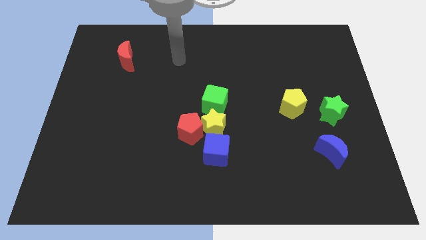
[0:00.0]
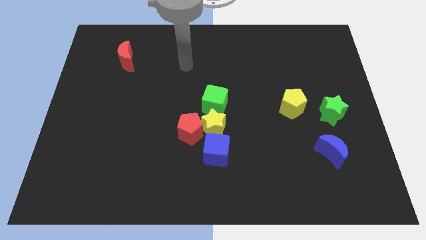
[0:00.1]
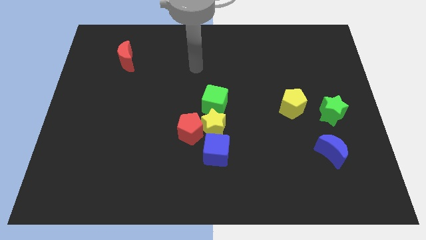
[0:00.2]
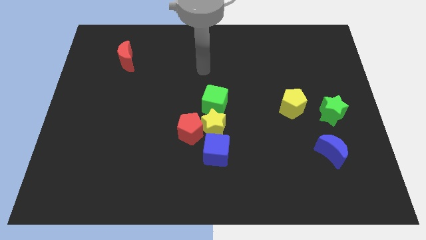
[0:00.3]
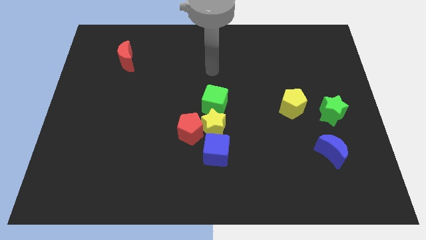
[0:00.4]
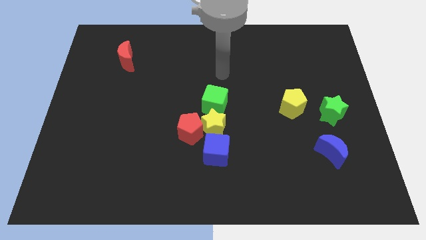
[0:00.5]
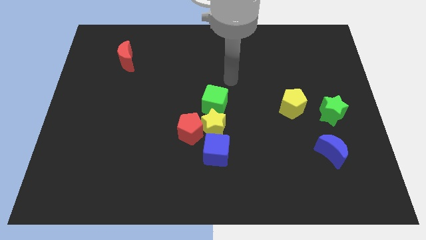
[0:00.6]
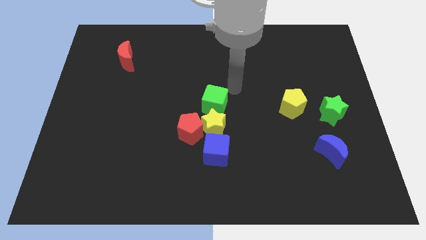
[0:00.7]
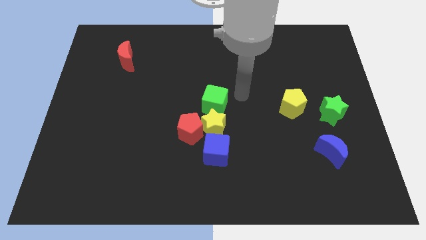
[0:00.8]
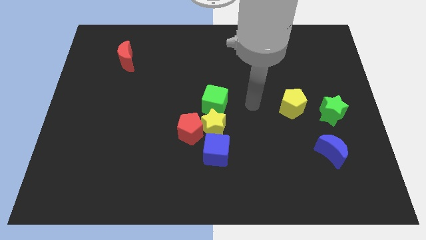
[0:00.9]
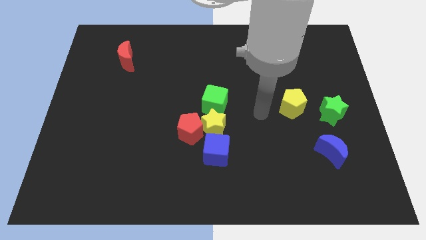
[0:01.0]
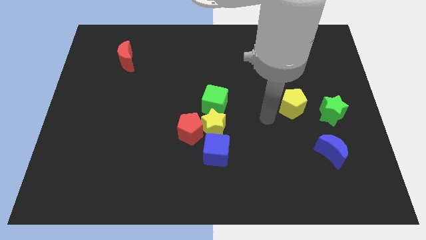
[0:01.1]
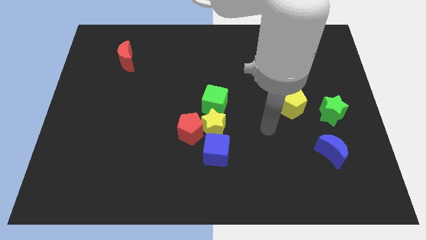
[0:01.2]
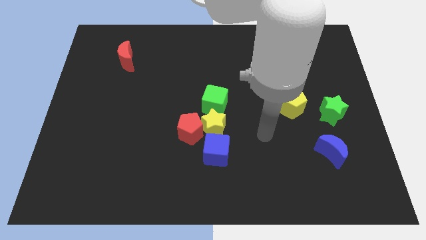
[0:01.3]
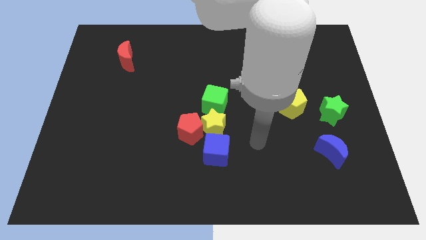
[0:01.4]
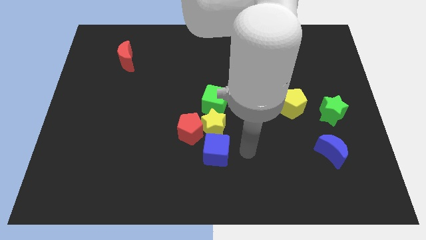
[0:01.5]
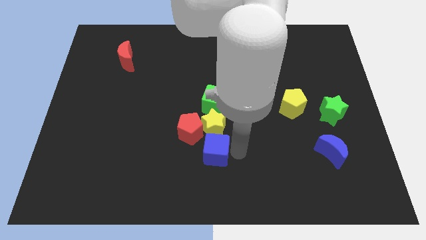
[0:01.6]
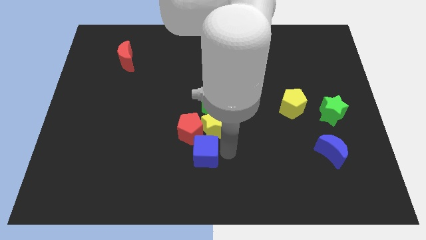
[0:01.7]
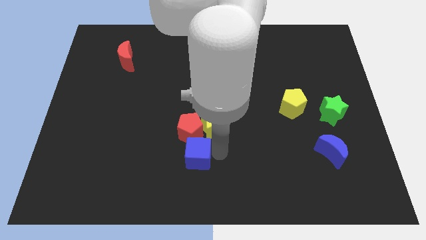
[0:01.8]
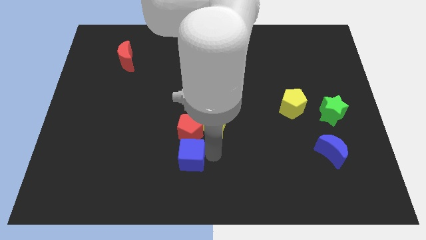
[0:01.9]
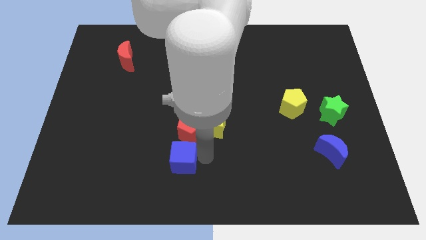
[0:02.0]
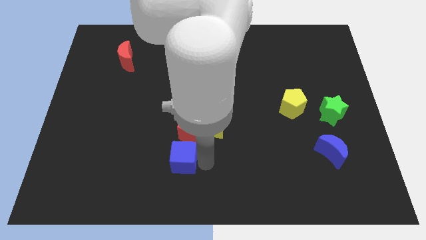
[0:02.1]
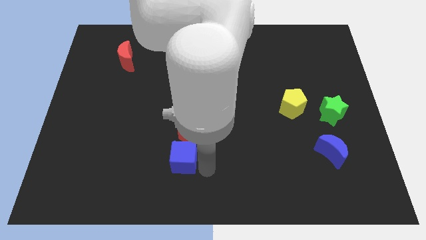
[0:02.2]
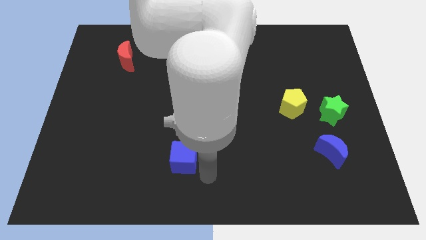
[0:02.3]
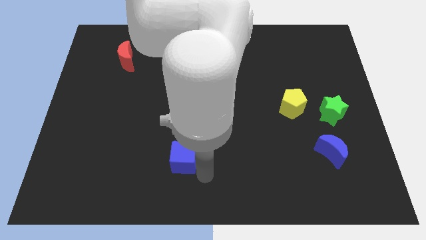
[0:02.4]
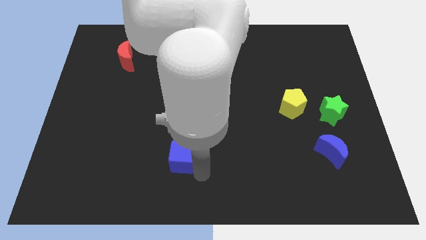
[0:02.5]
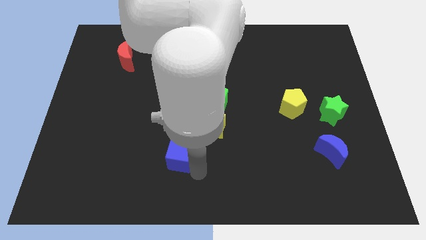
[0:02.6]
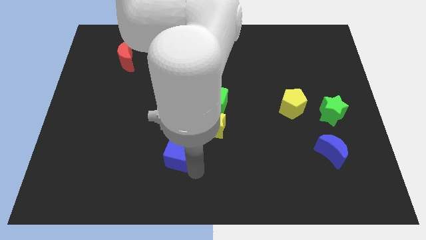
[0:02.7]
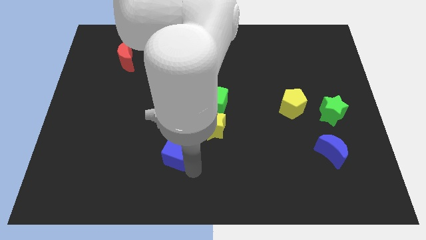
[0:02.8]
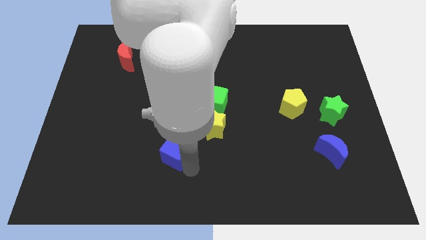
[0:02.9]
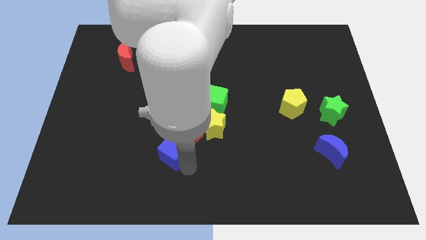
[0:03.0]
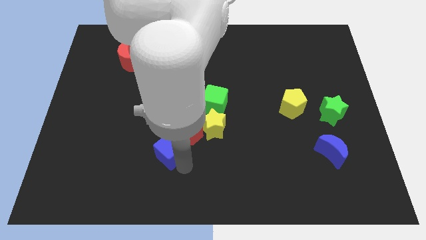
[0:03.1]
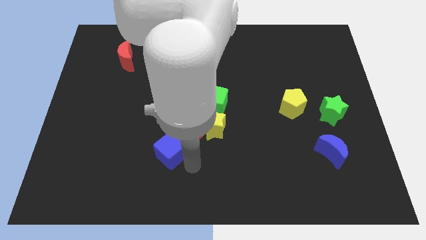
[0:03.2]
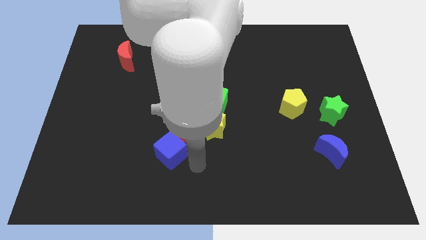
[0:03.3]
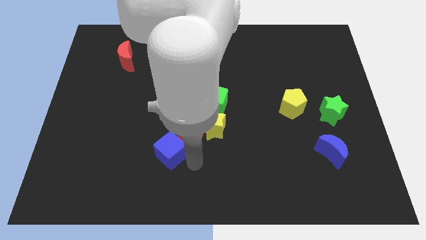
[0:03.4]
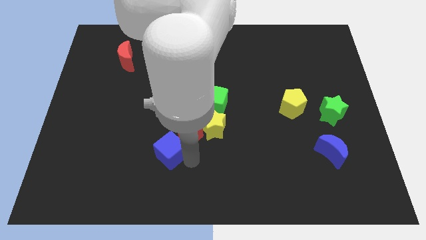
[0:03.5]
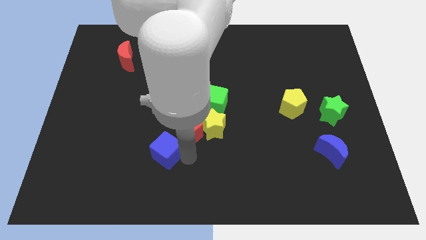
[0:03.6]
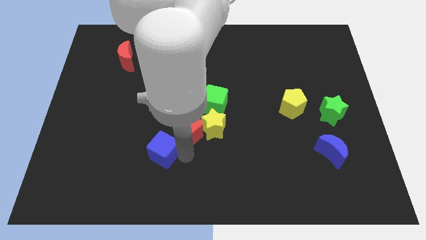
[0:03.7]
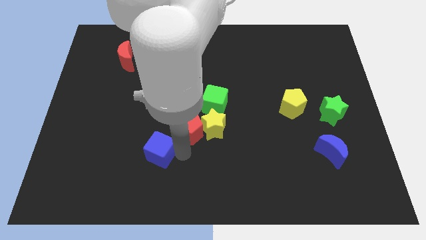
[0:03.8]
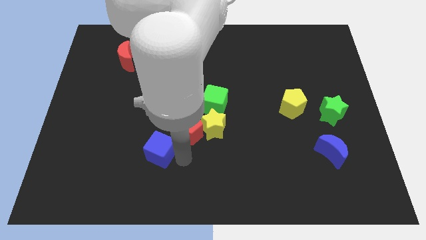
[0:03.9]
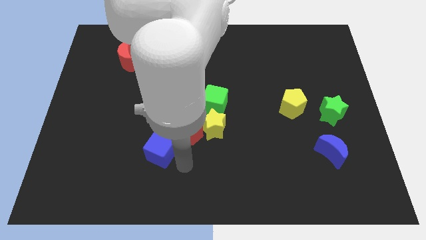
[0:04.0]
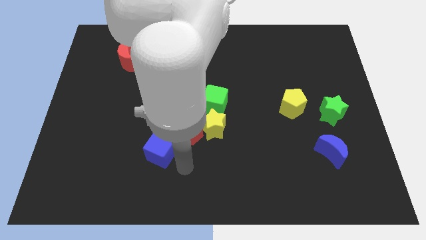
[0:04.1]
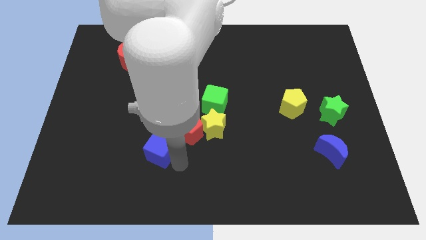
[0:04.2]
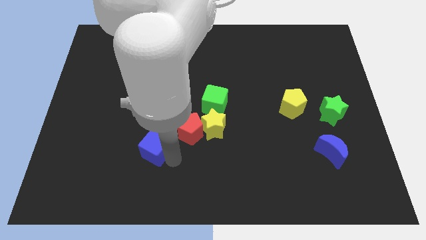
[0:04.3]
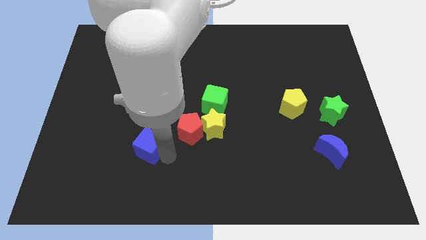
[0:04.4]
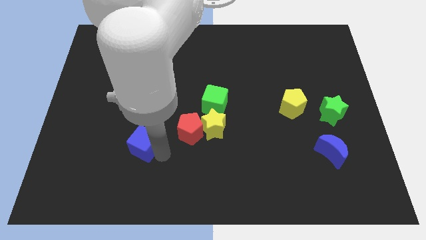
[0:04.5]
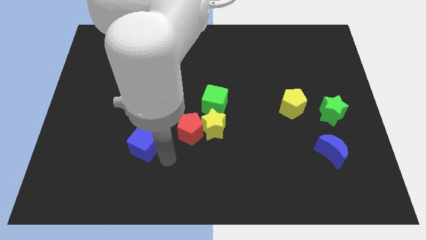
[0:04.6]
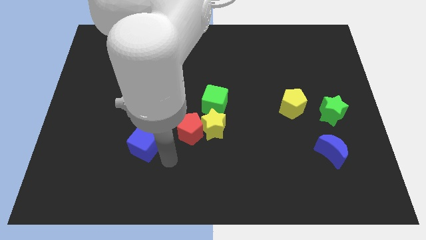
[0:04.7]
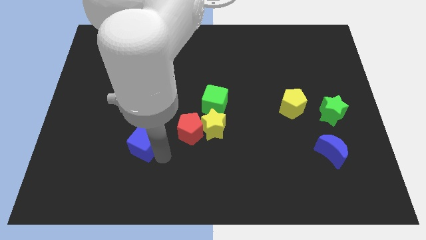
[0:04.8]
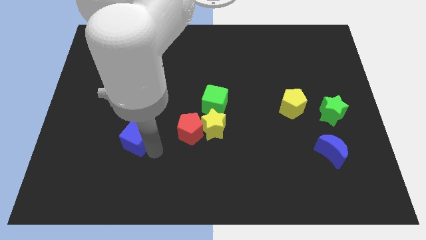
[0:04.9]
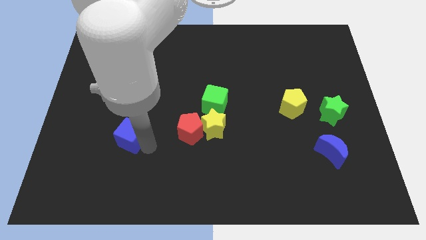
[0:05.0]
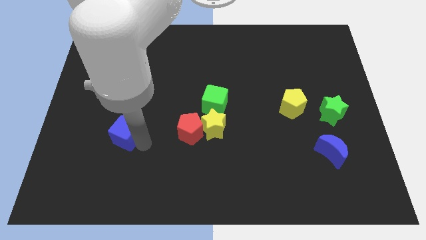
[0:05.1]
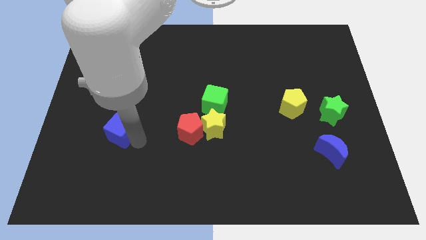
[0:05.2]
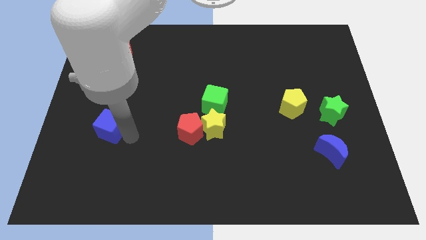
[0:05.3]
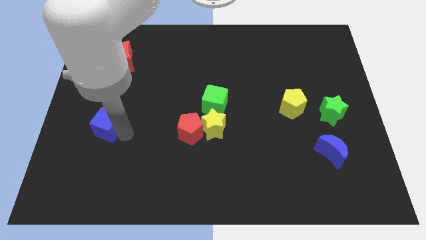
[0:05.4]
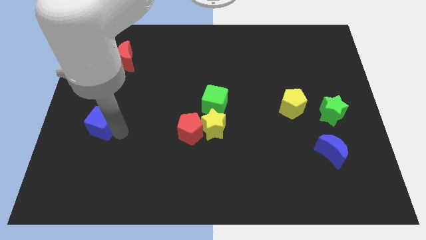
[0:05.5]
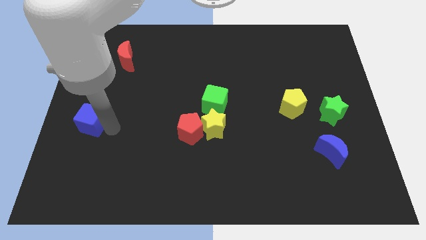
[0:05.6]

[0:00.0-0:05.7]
push the blue cube to the left side
